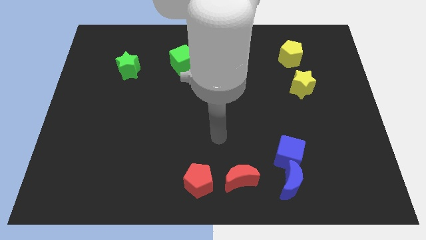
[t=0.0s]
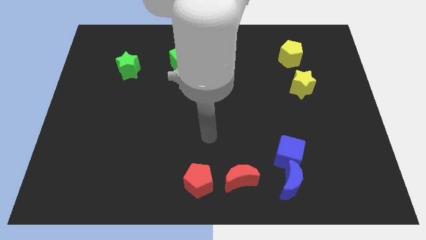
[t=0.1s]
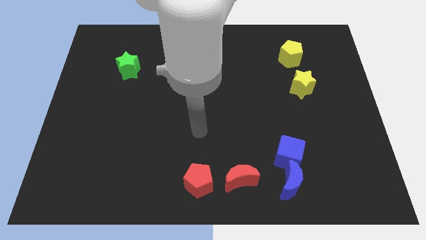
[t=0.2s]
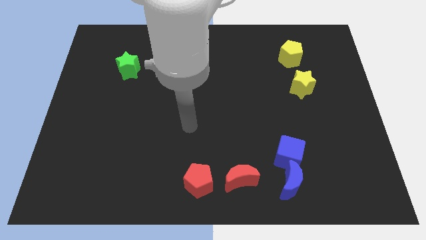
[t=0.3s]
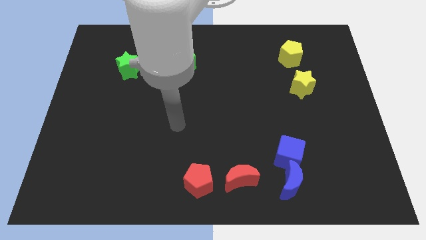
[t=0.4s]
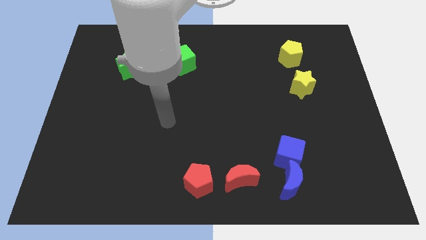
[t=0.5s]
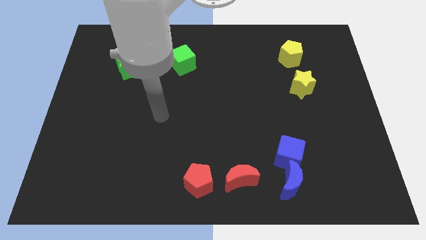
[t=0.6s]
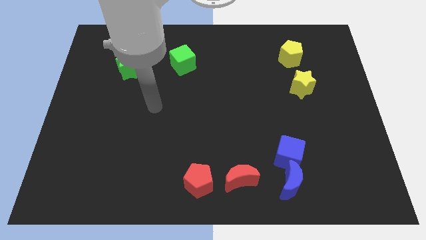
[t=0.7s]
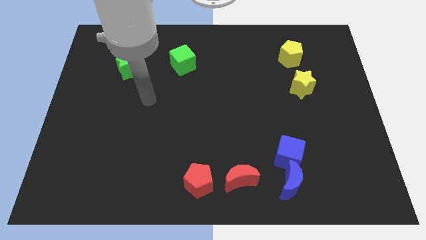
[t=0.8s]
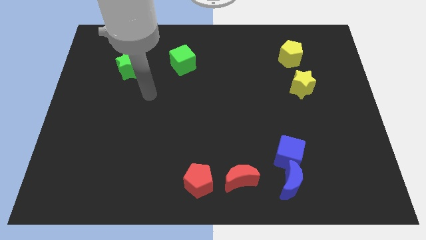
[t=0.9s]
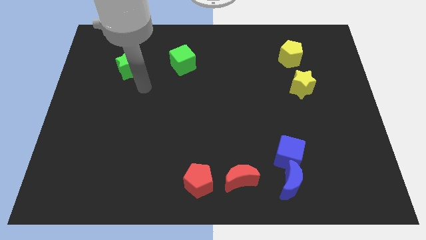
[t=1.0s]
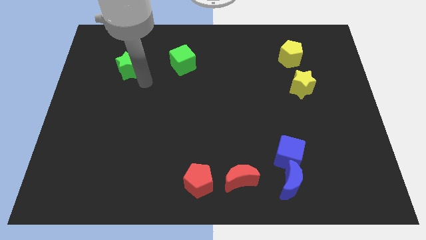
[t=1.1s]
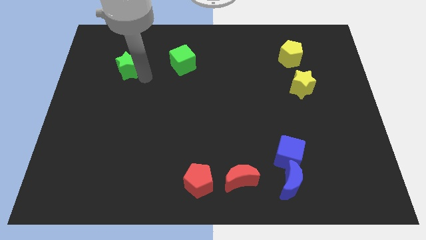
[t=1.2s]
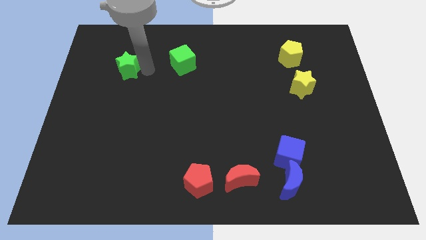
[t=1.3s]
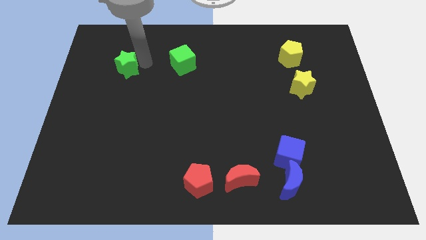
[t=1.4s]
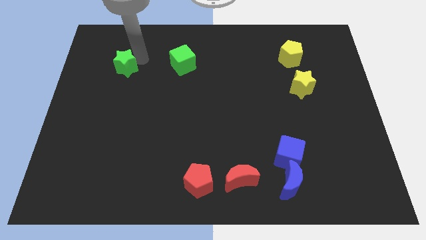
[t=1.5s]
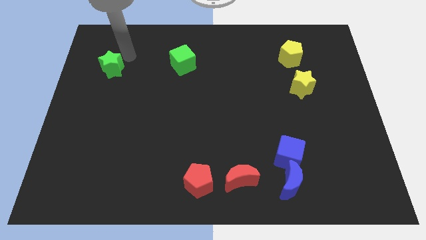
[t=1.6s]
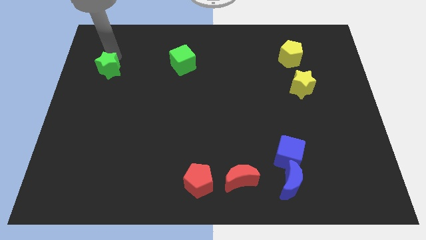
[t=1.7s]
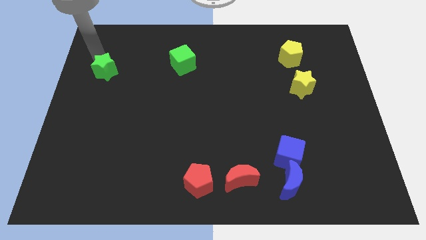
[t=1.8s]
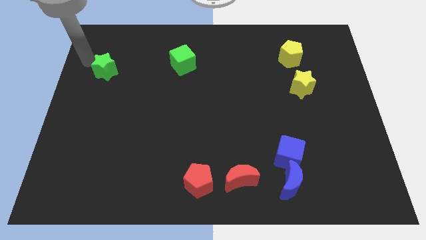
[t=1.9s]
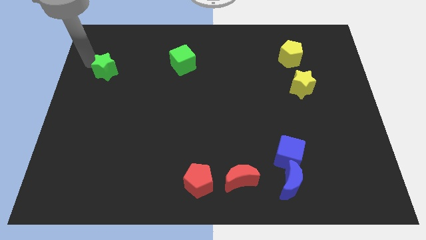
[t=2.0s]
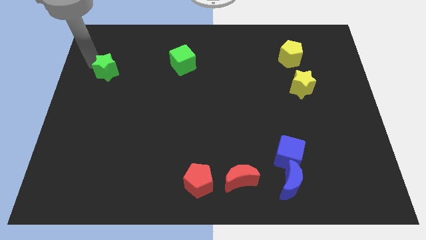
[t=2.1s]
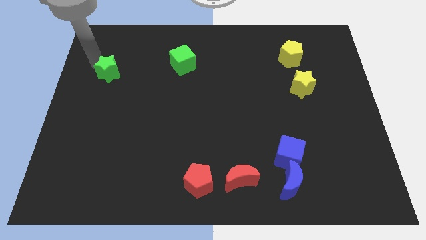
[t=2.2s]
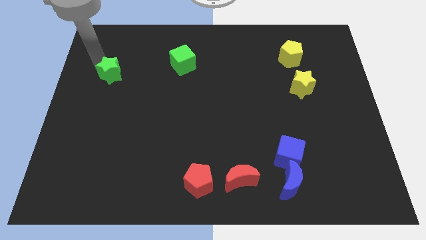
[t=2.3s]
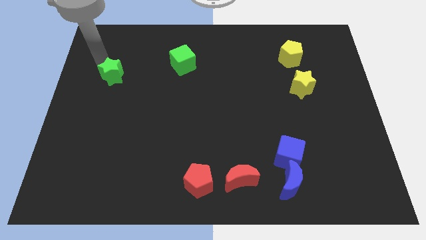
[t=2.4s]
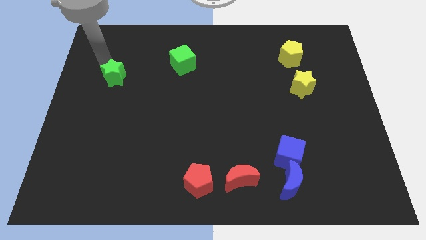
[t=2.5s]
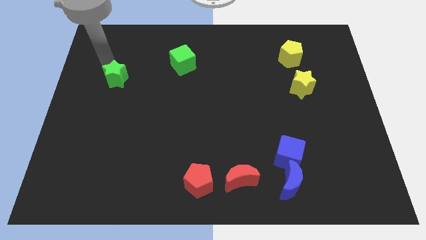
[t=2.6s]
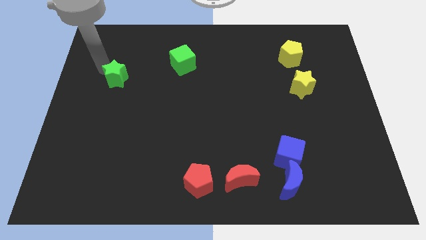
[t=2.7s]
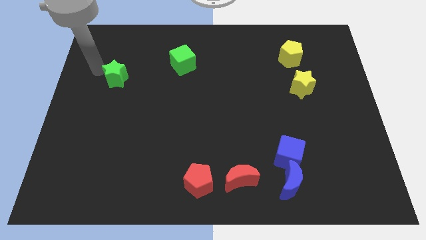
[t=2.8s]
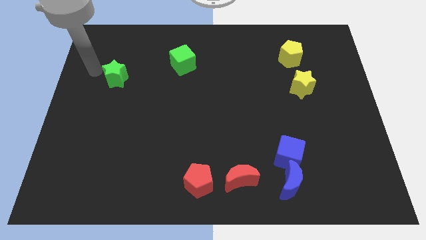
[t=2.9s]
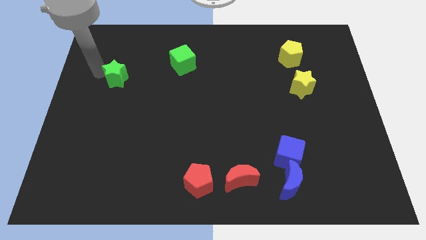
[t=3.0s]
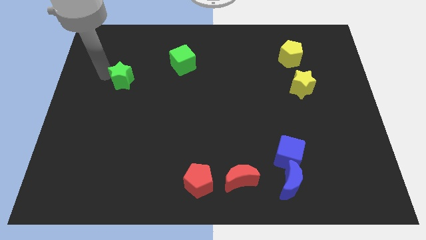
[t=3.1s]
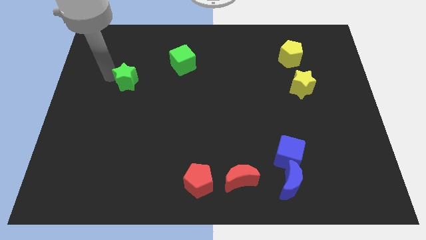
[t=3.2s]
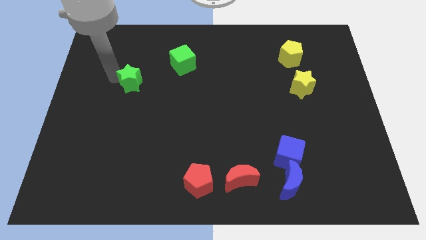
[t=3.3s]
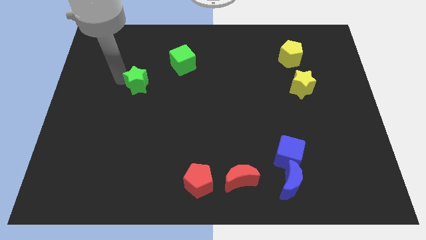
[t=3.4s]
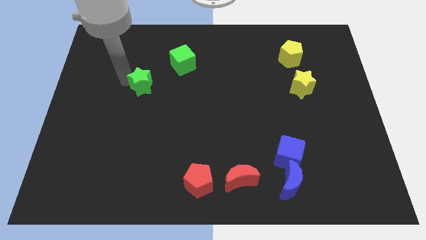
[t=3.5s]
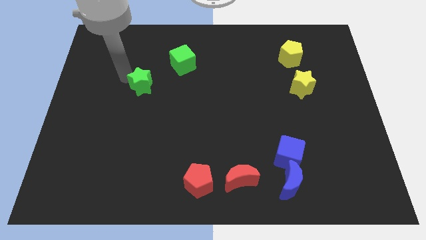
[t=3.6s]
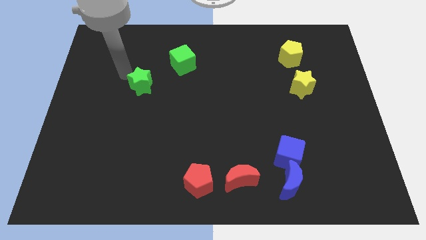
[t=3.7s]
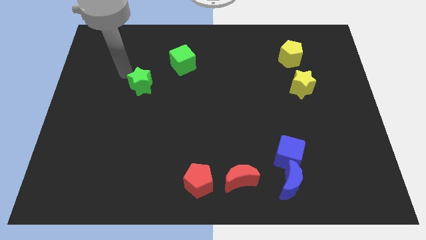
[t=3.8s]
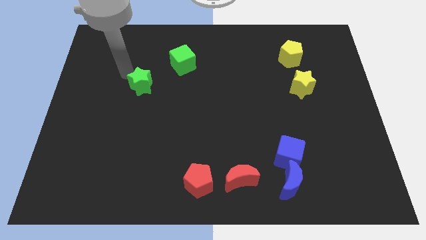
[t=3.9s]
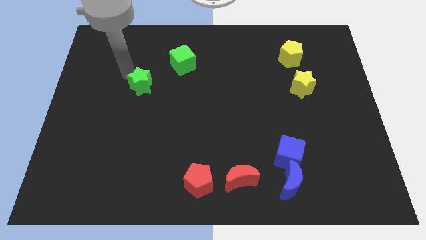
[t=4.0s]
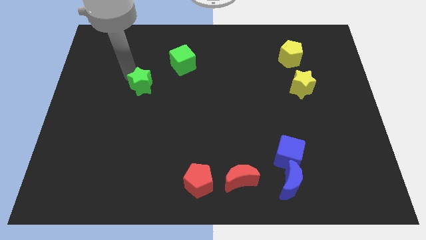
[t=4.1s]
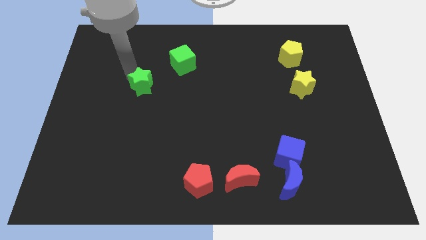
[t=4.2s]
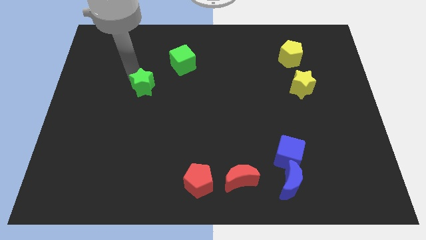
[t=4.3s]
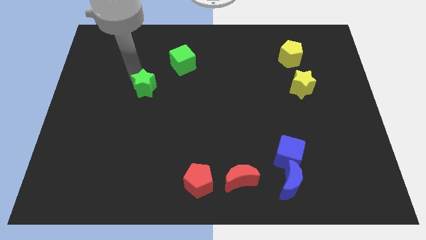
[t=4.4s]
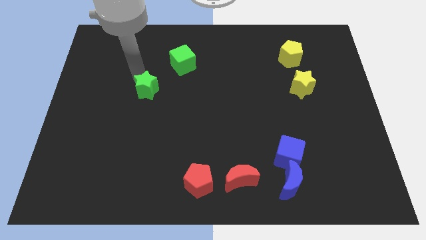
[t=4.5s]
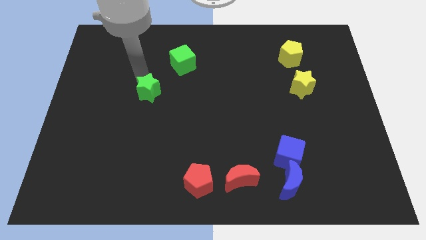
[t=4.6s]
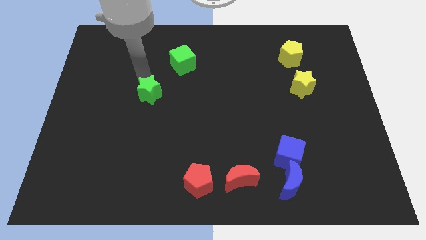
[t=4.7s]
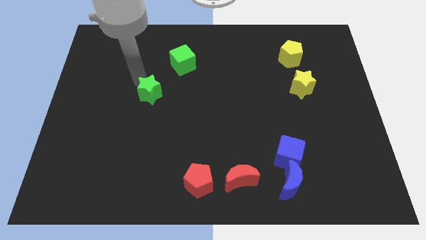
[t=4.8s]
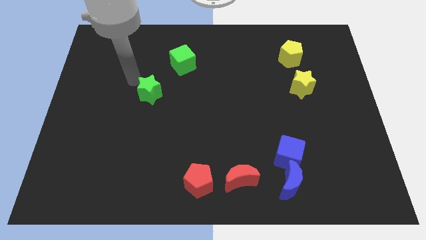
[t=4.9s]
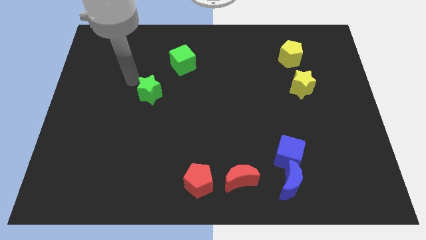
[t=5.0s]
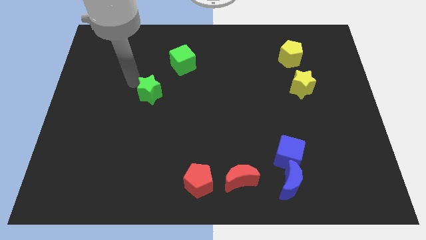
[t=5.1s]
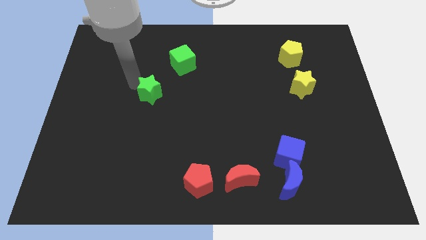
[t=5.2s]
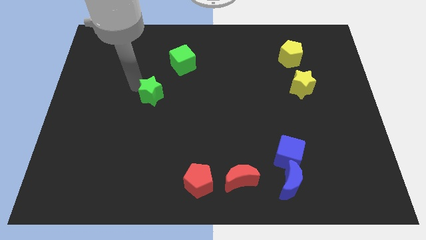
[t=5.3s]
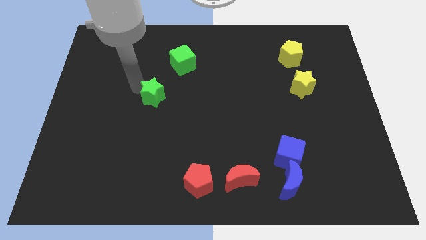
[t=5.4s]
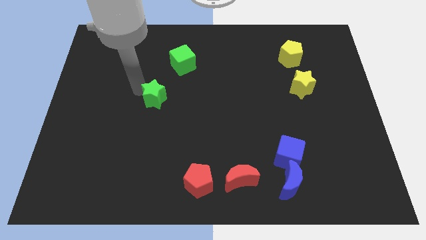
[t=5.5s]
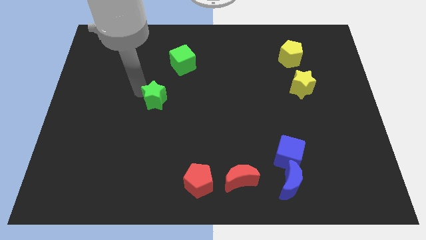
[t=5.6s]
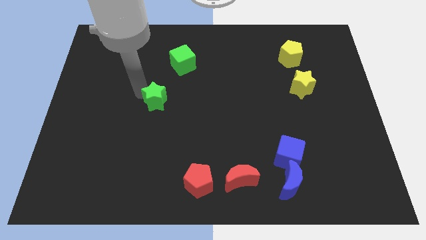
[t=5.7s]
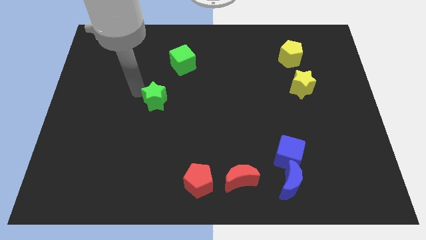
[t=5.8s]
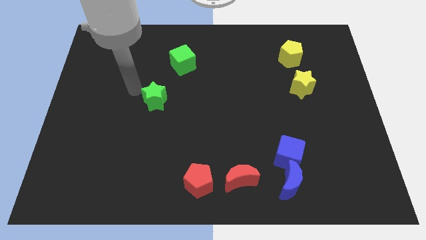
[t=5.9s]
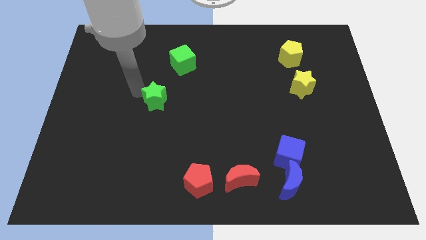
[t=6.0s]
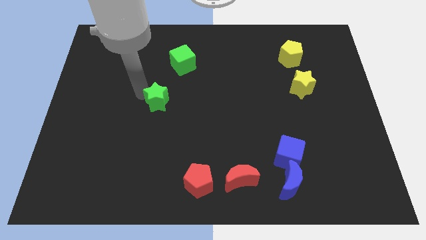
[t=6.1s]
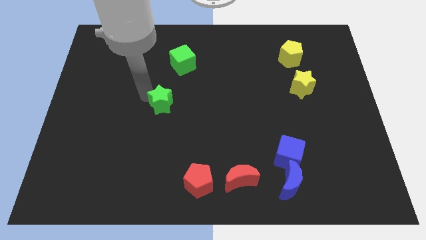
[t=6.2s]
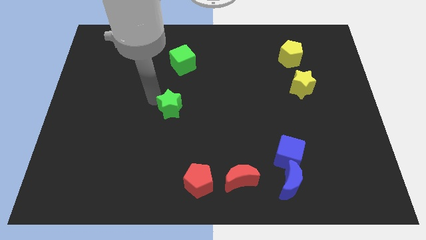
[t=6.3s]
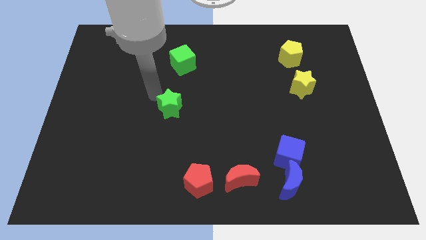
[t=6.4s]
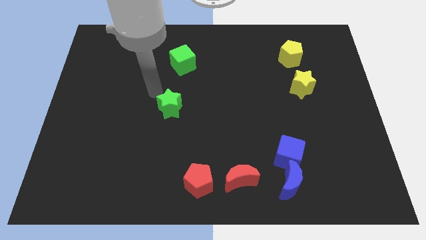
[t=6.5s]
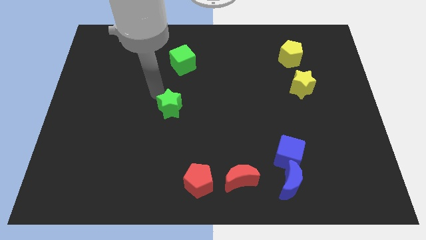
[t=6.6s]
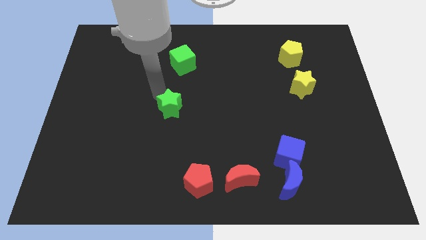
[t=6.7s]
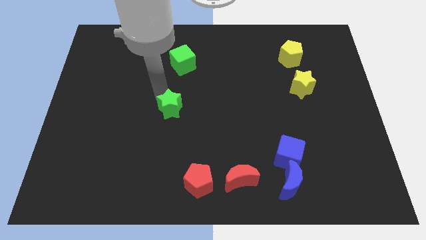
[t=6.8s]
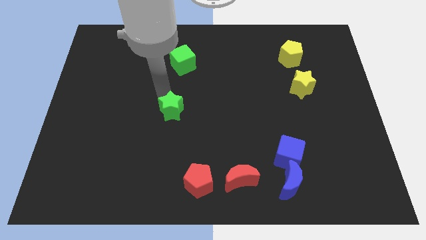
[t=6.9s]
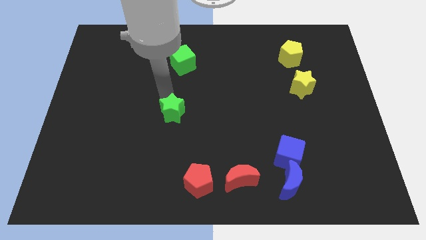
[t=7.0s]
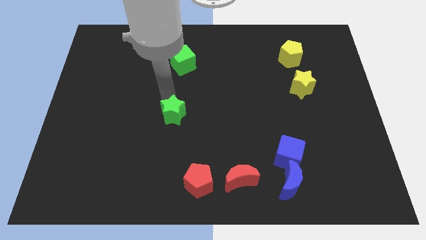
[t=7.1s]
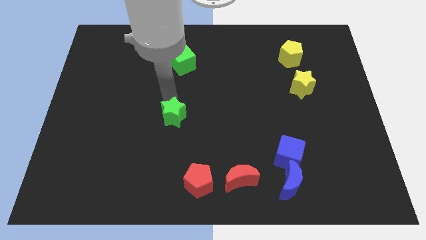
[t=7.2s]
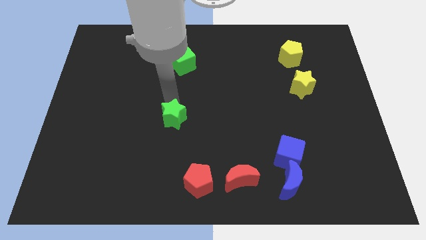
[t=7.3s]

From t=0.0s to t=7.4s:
move the green star down and to the right

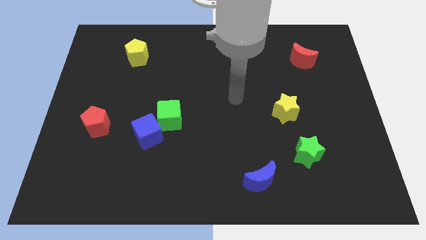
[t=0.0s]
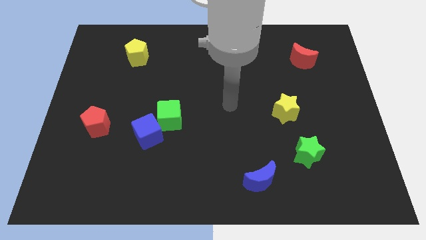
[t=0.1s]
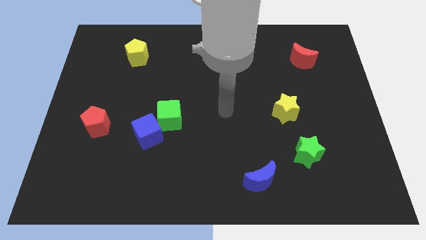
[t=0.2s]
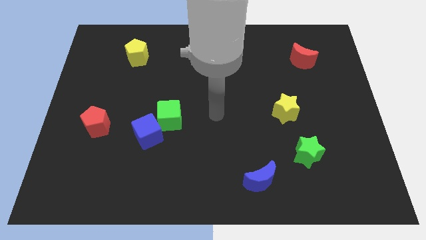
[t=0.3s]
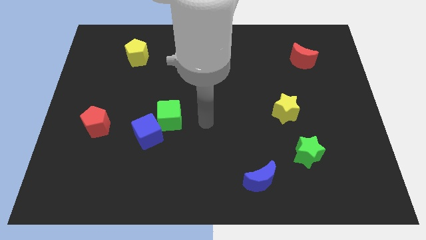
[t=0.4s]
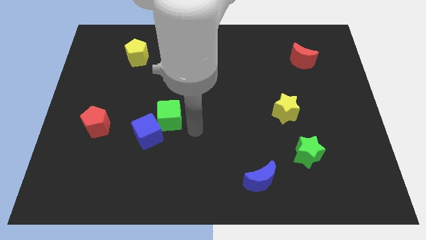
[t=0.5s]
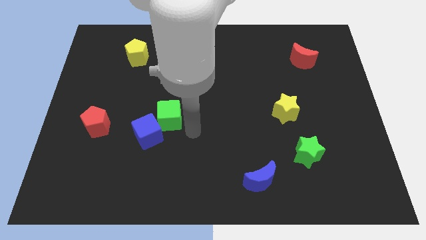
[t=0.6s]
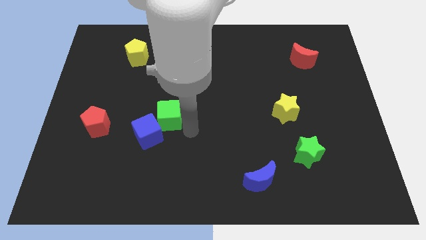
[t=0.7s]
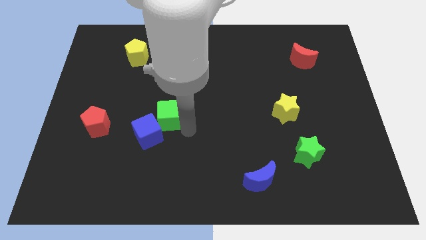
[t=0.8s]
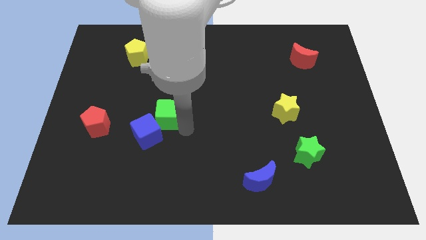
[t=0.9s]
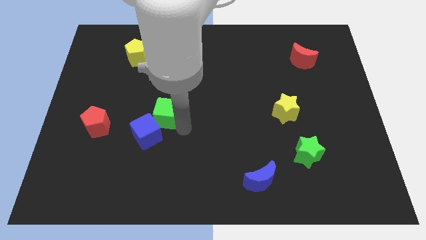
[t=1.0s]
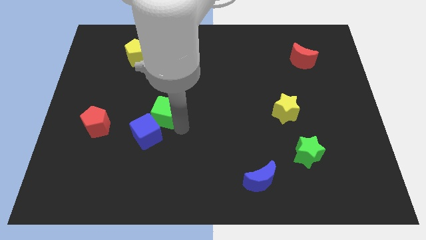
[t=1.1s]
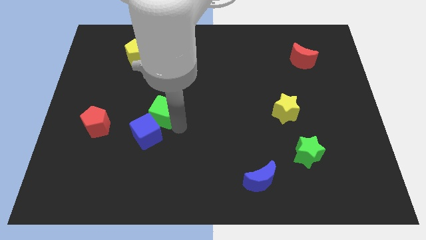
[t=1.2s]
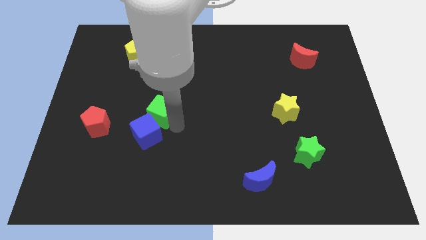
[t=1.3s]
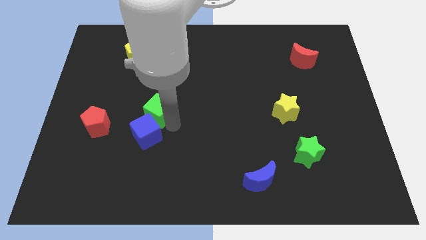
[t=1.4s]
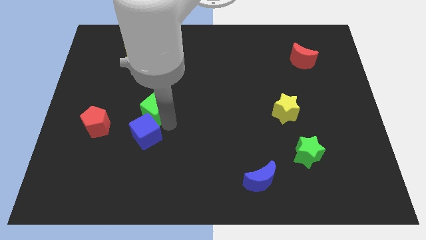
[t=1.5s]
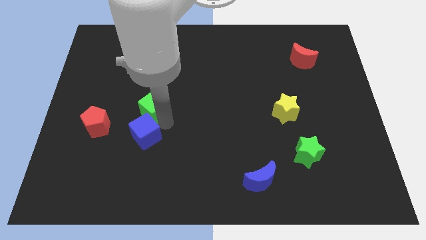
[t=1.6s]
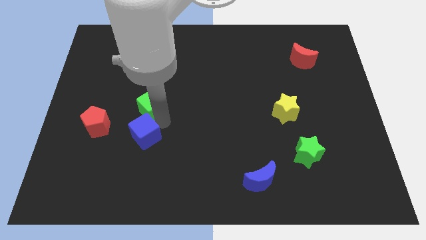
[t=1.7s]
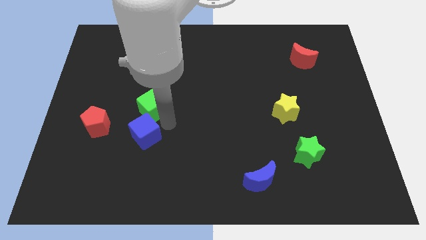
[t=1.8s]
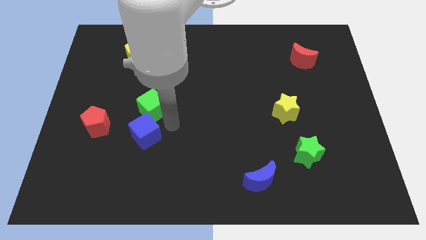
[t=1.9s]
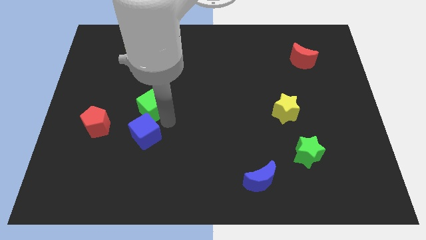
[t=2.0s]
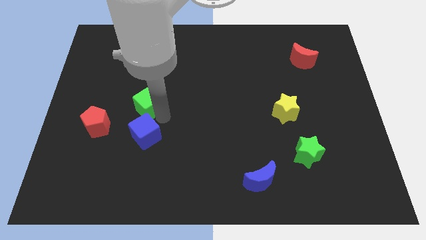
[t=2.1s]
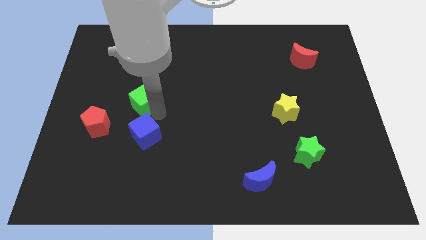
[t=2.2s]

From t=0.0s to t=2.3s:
move the green cube a bit upwards and then left
